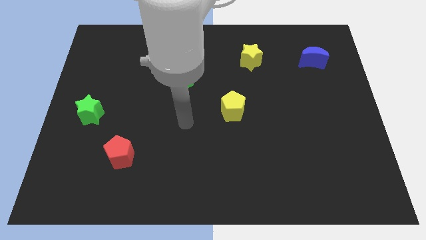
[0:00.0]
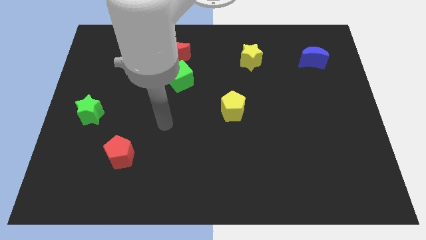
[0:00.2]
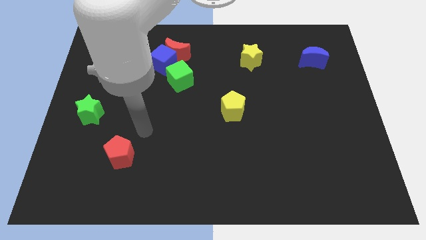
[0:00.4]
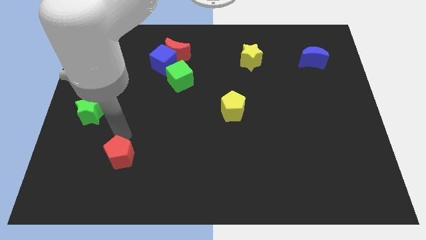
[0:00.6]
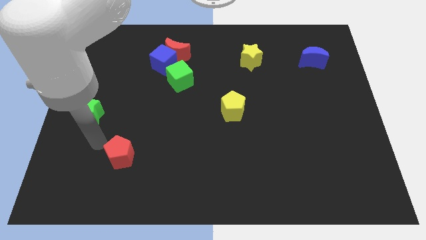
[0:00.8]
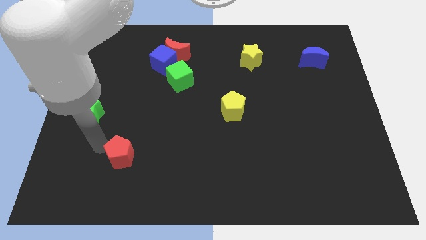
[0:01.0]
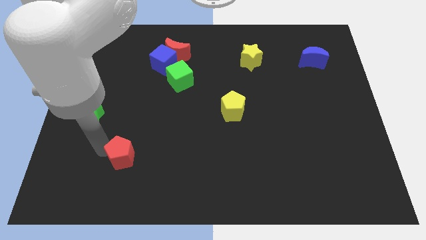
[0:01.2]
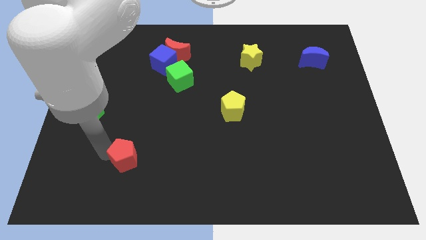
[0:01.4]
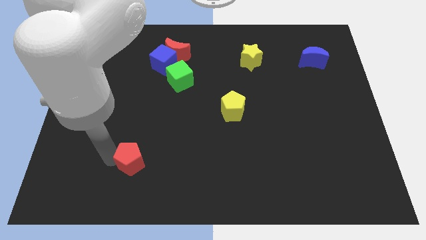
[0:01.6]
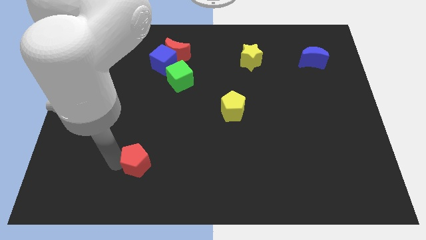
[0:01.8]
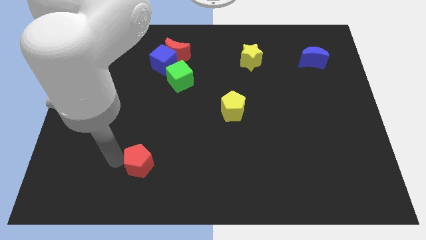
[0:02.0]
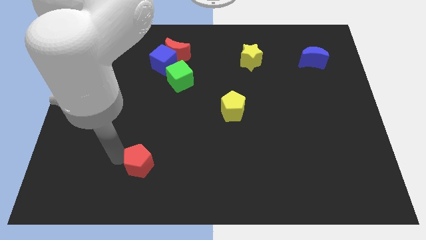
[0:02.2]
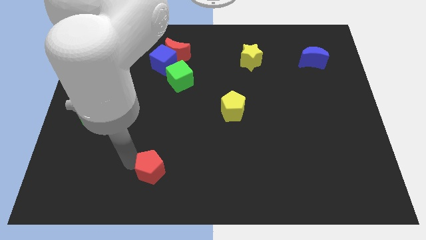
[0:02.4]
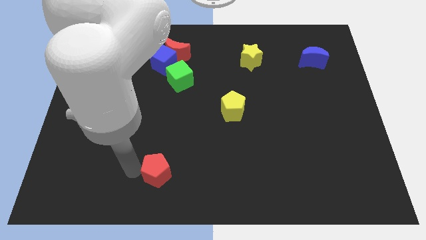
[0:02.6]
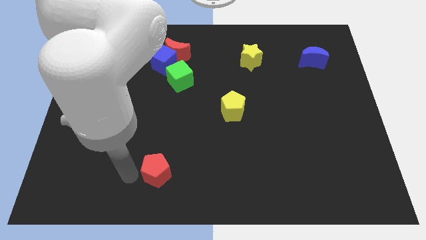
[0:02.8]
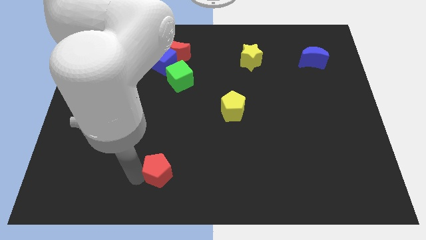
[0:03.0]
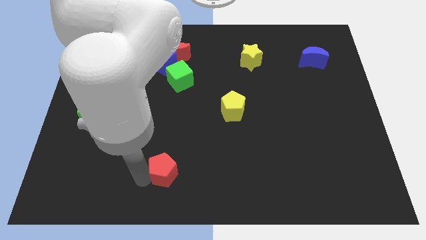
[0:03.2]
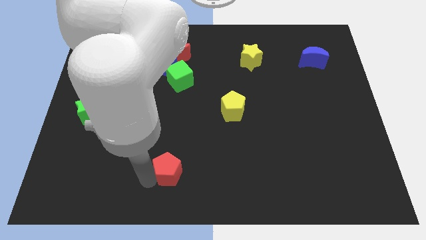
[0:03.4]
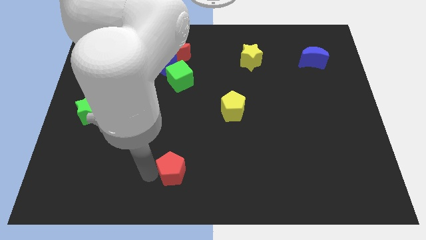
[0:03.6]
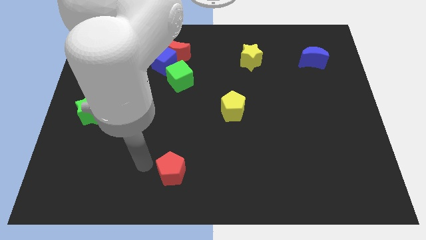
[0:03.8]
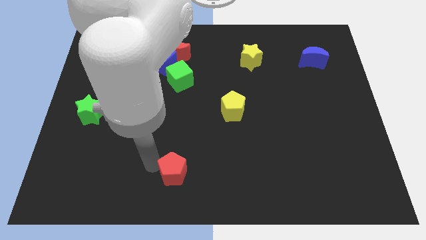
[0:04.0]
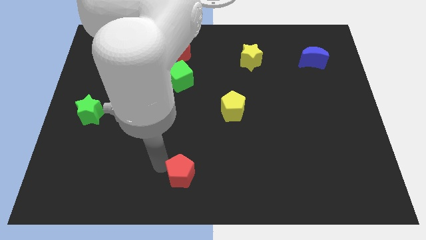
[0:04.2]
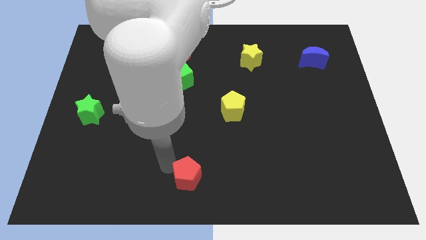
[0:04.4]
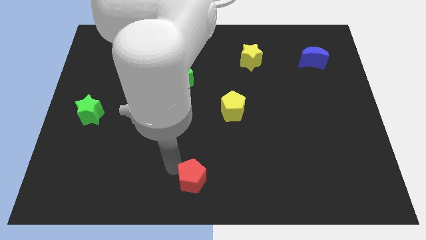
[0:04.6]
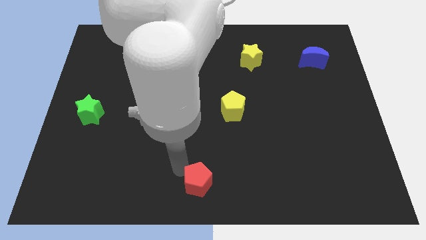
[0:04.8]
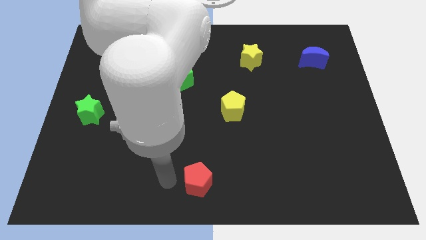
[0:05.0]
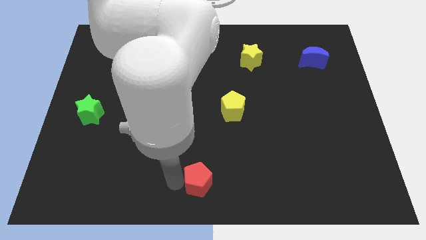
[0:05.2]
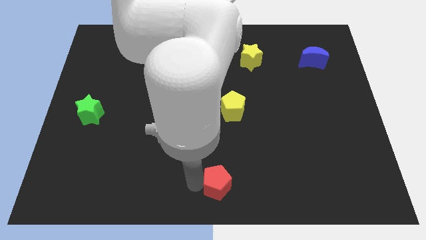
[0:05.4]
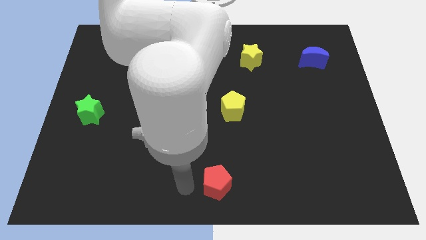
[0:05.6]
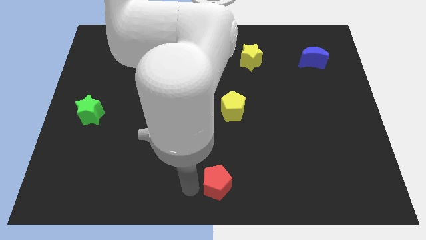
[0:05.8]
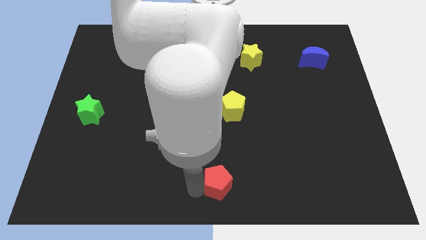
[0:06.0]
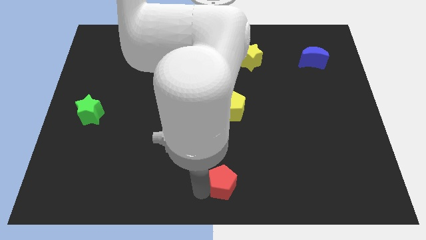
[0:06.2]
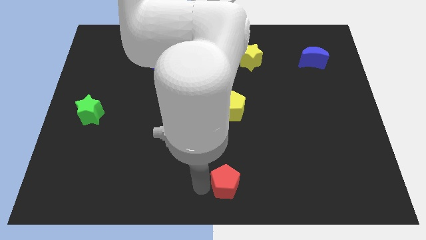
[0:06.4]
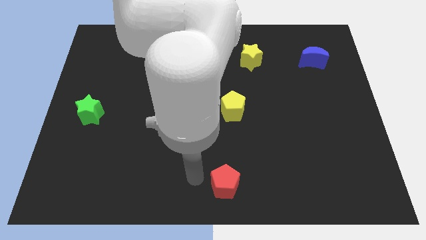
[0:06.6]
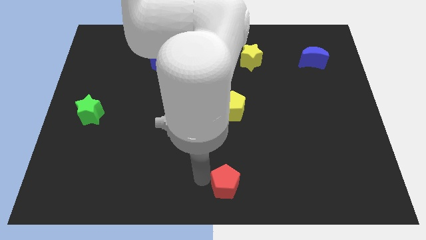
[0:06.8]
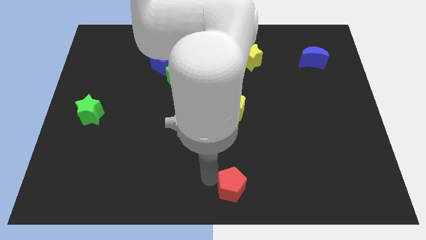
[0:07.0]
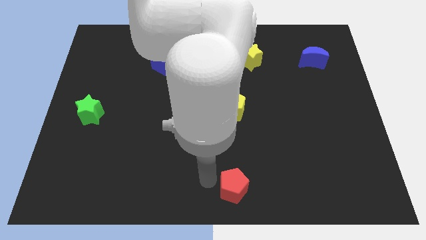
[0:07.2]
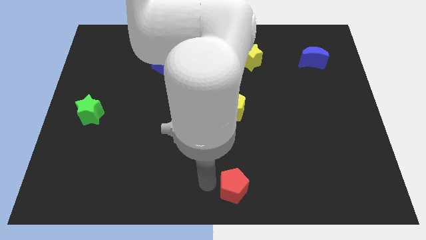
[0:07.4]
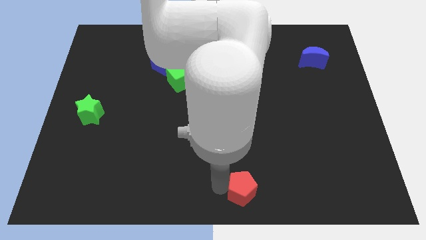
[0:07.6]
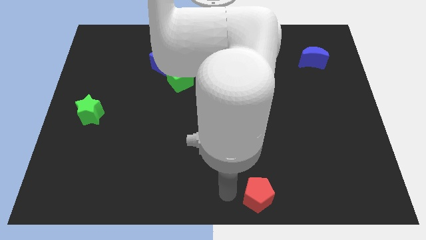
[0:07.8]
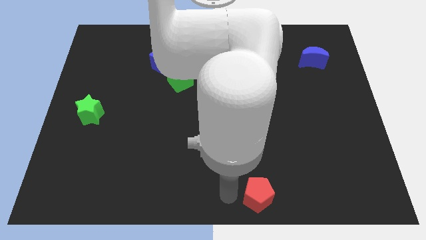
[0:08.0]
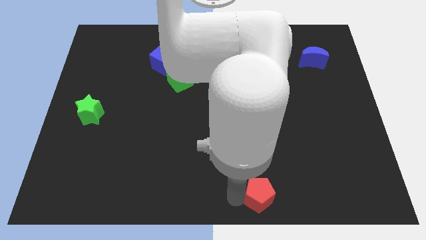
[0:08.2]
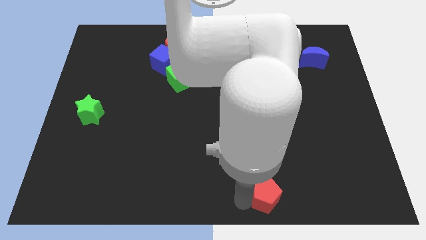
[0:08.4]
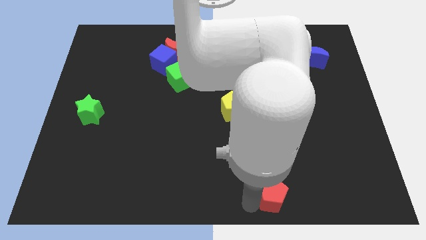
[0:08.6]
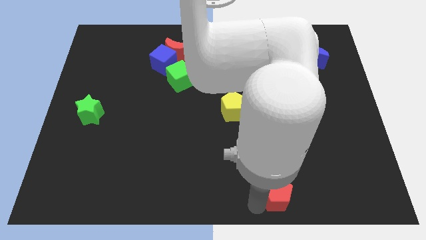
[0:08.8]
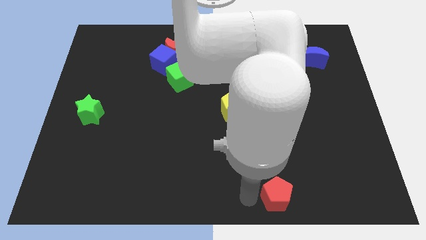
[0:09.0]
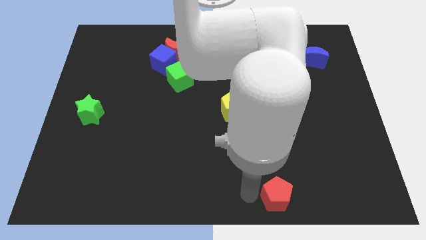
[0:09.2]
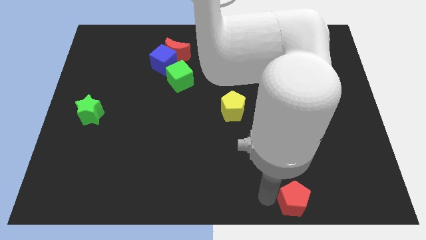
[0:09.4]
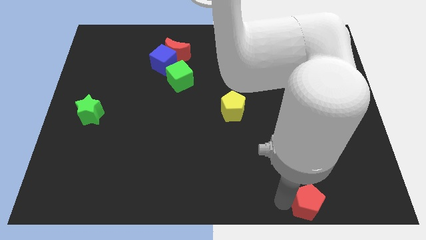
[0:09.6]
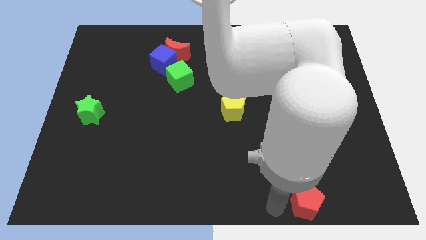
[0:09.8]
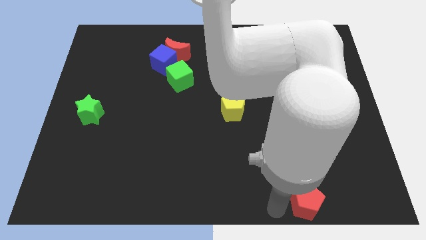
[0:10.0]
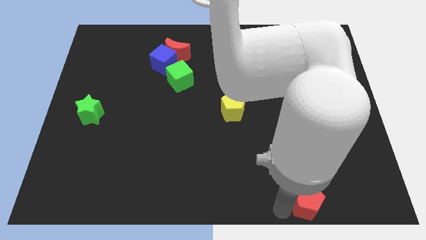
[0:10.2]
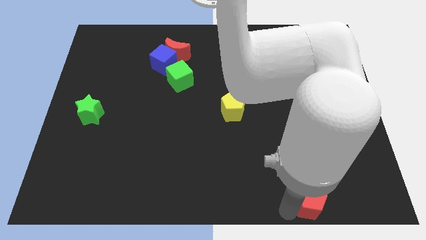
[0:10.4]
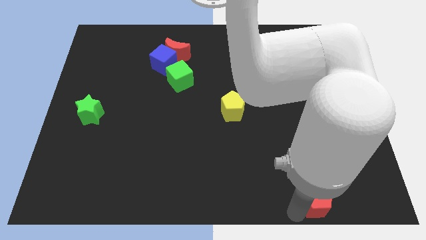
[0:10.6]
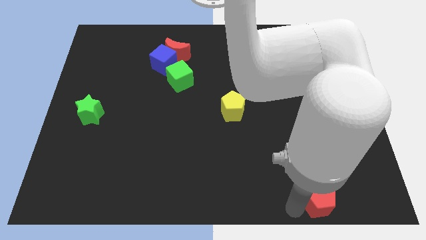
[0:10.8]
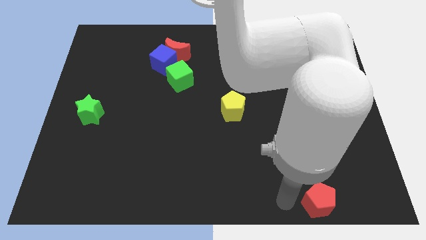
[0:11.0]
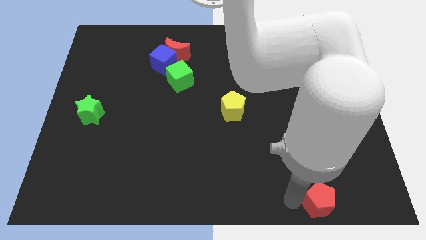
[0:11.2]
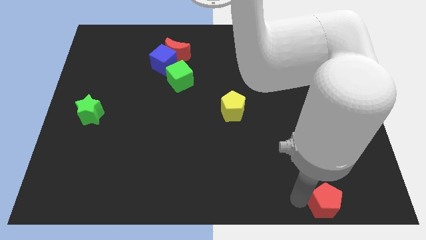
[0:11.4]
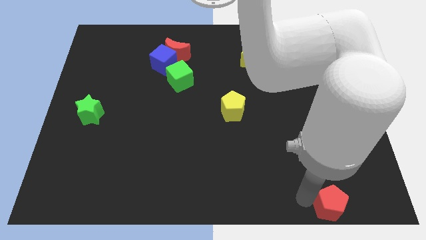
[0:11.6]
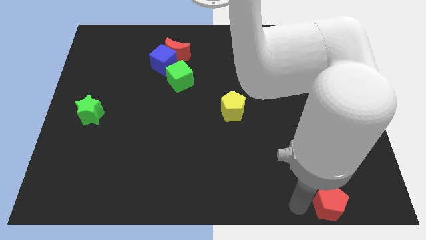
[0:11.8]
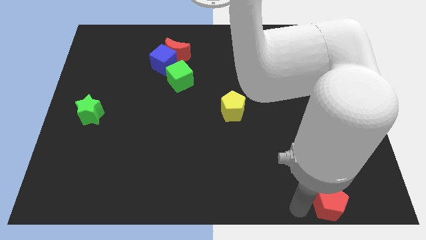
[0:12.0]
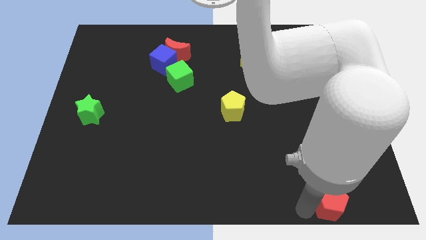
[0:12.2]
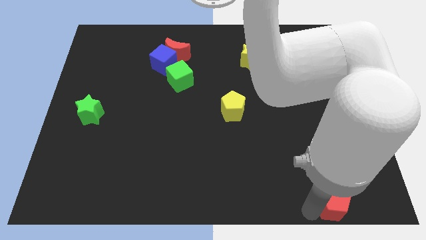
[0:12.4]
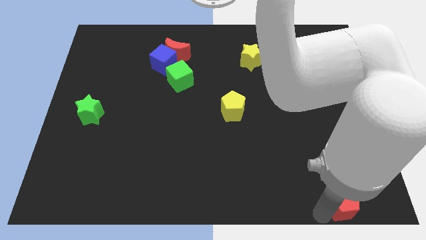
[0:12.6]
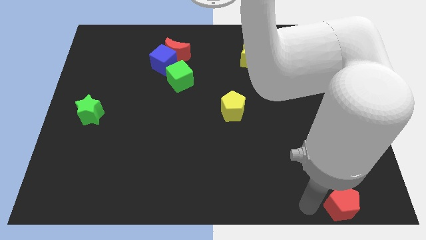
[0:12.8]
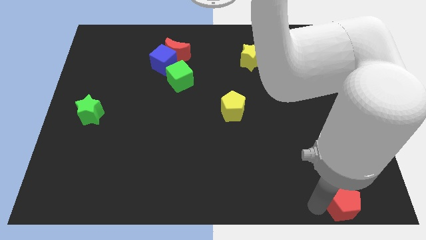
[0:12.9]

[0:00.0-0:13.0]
slide the red pentagon to the bottom right corner
